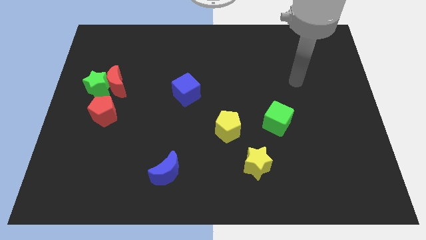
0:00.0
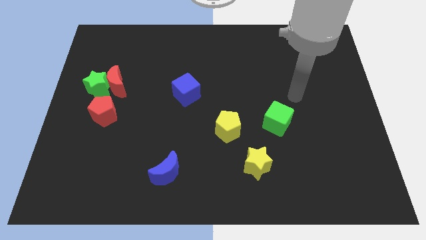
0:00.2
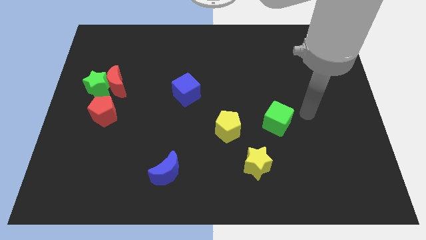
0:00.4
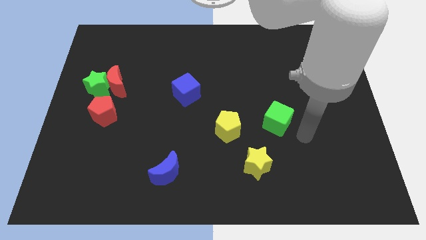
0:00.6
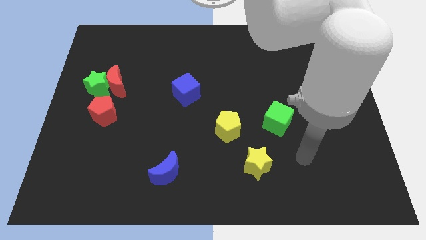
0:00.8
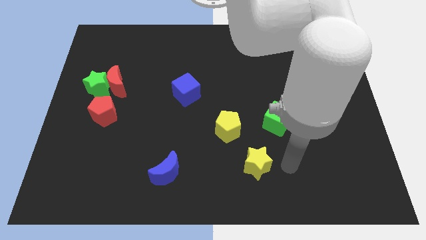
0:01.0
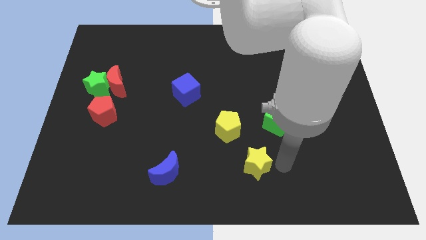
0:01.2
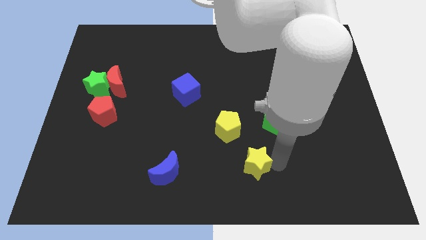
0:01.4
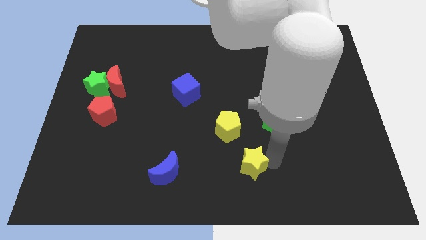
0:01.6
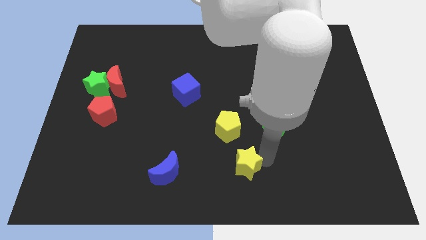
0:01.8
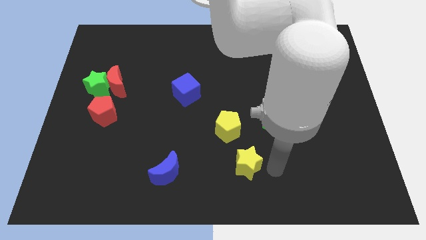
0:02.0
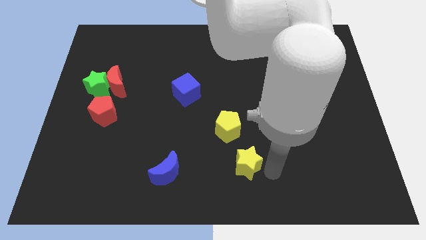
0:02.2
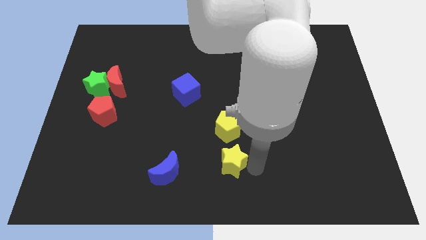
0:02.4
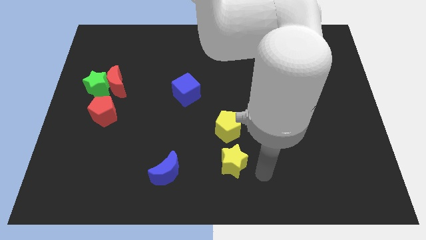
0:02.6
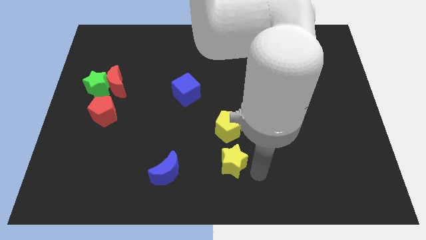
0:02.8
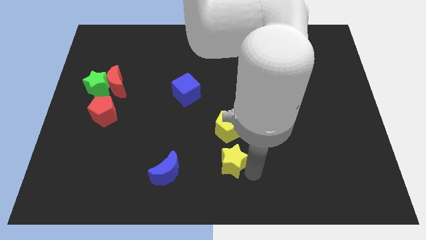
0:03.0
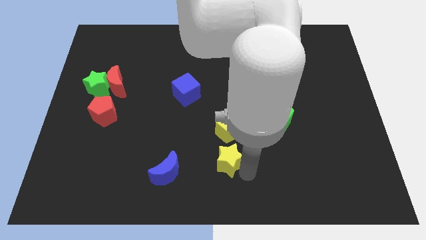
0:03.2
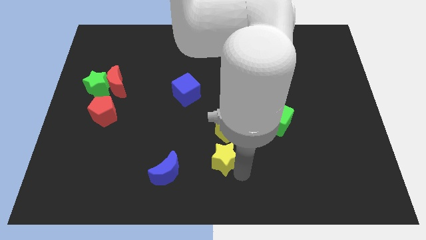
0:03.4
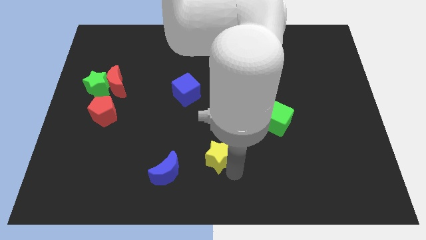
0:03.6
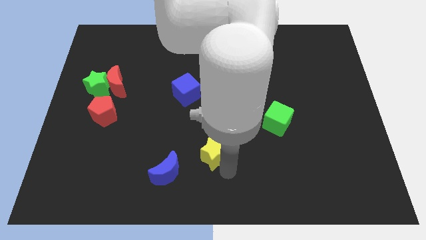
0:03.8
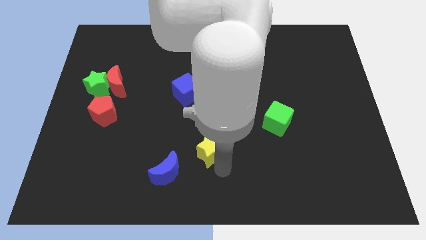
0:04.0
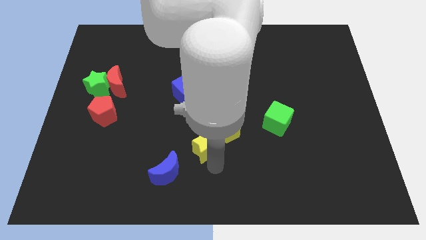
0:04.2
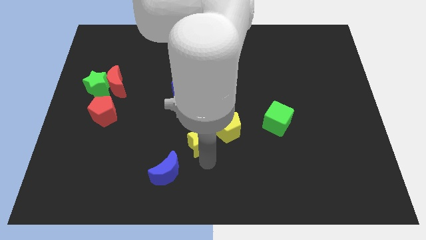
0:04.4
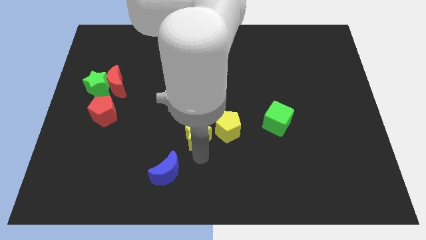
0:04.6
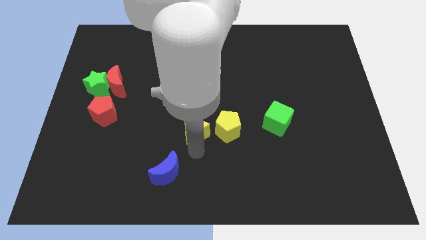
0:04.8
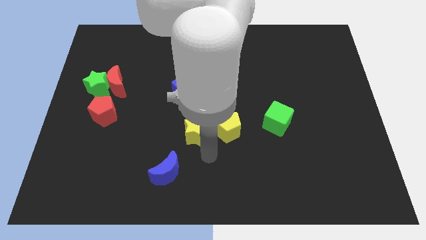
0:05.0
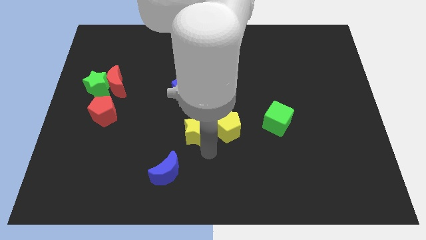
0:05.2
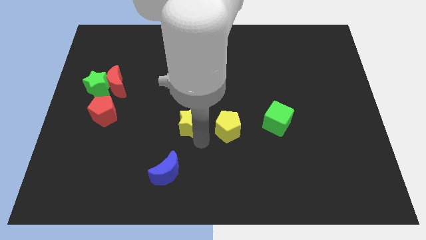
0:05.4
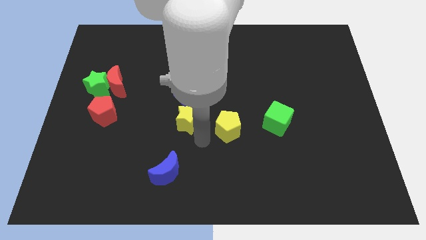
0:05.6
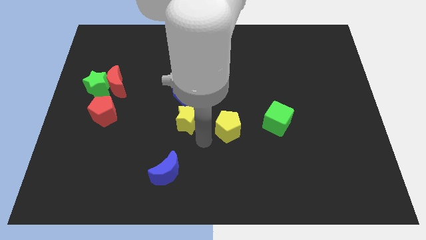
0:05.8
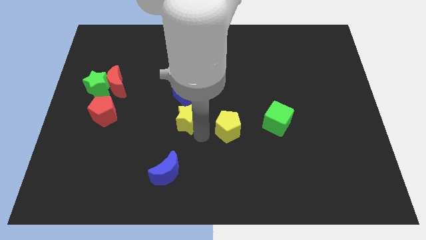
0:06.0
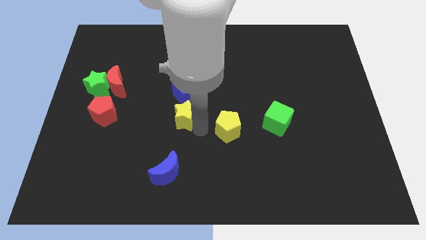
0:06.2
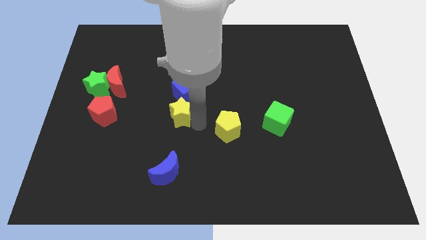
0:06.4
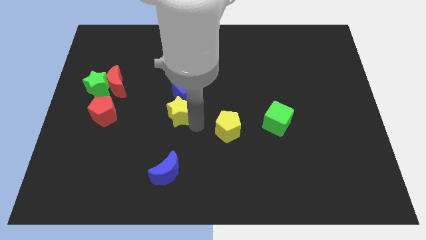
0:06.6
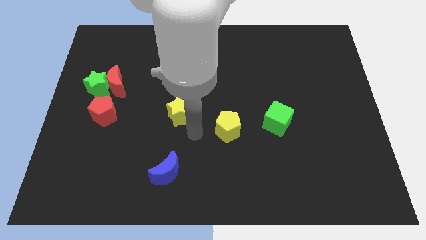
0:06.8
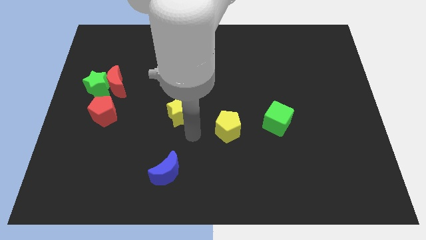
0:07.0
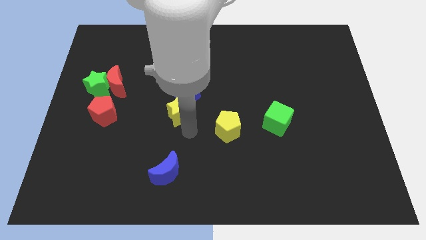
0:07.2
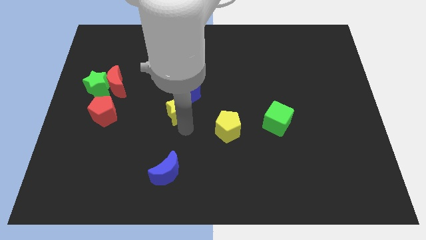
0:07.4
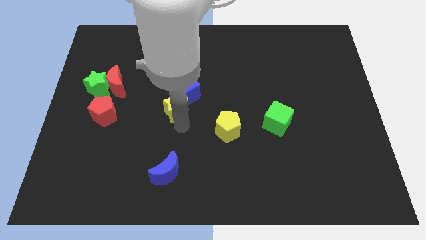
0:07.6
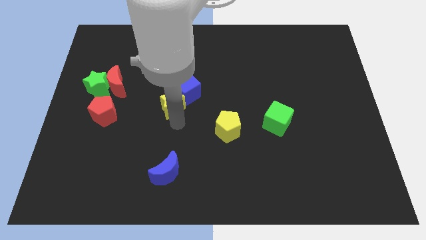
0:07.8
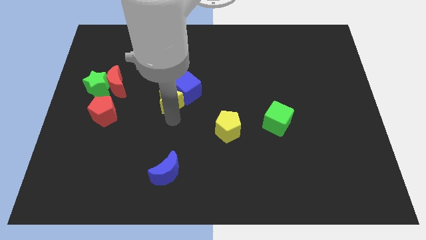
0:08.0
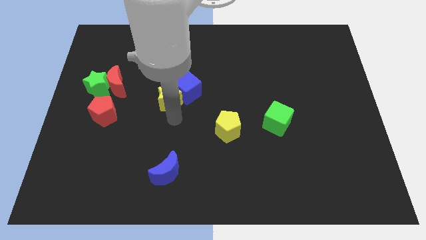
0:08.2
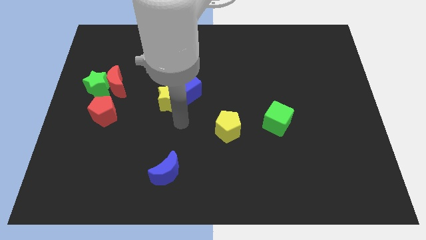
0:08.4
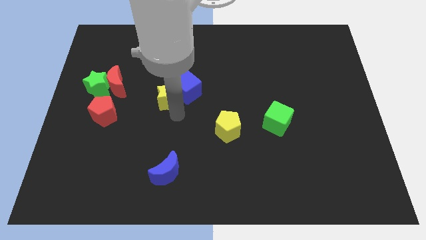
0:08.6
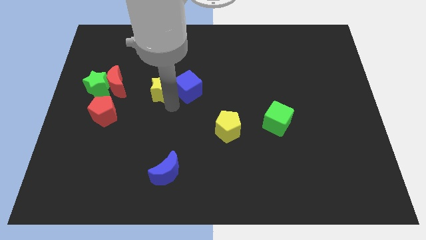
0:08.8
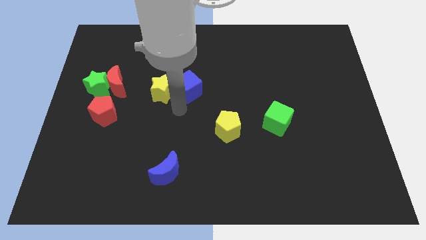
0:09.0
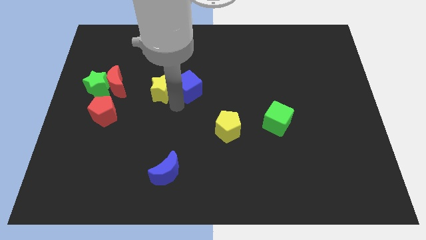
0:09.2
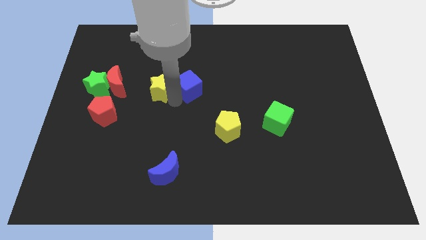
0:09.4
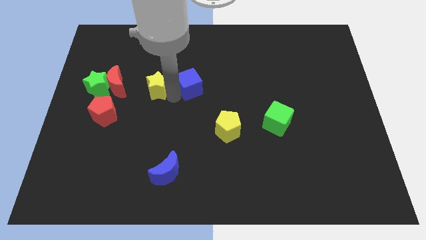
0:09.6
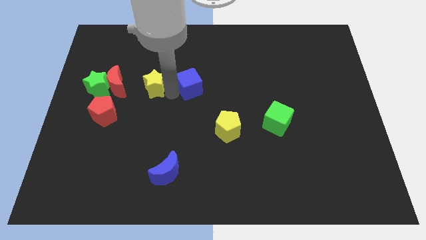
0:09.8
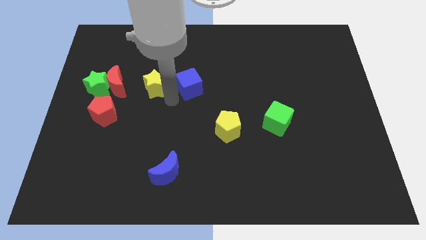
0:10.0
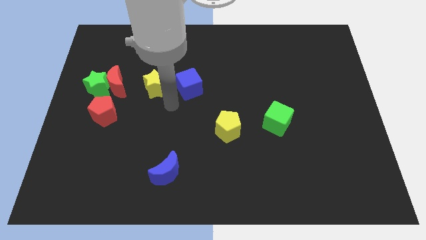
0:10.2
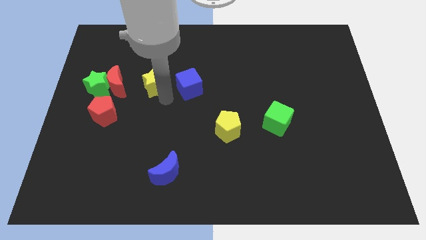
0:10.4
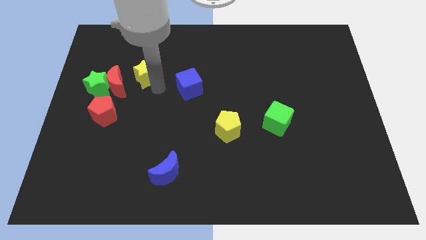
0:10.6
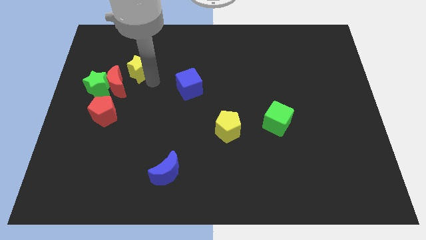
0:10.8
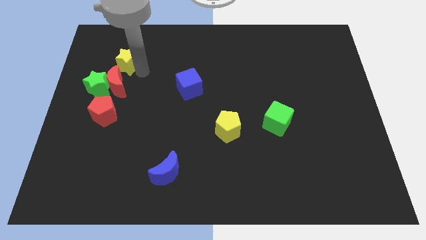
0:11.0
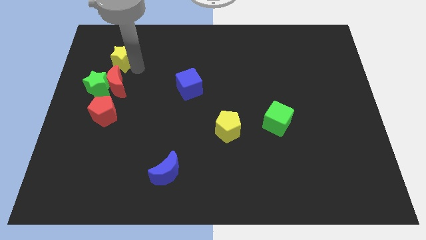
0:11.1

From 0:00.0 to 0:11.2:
push the yellow star above the green star

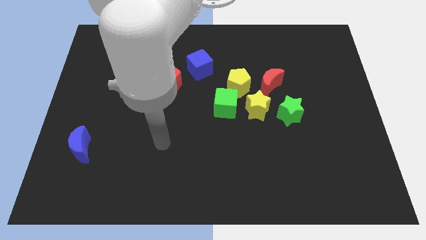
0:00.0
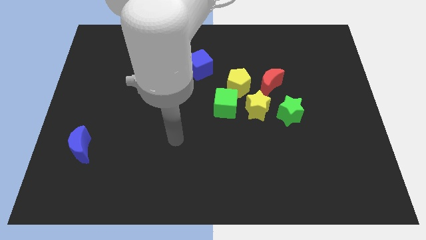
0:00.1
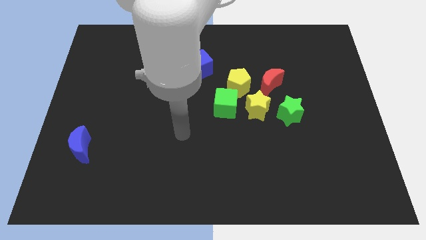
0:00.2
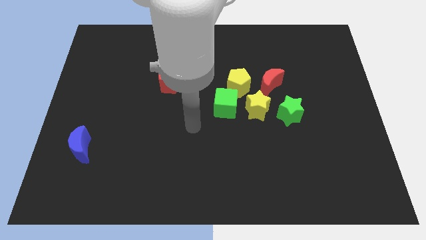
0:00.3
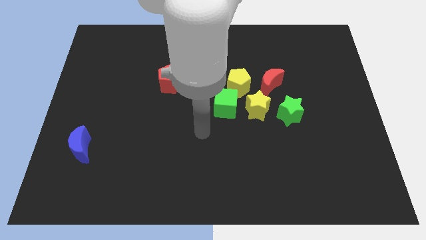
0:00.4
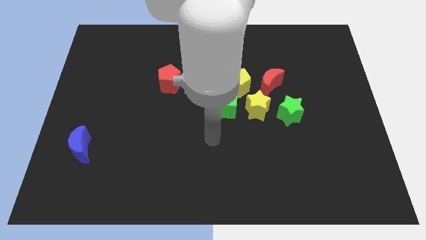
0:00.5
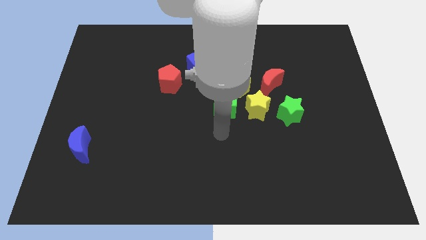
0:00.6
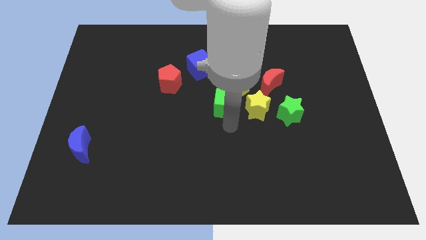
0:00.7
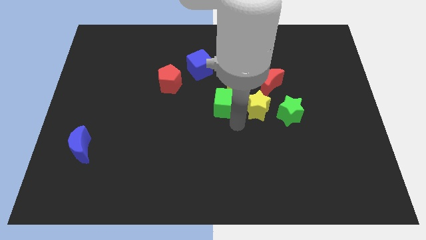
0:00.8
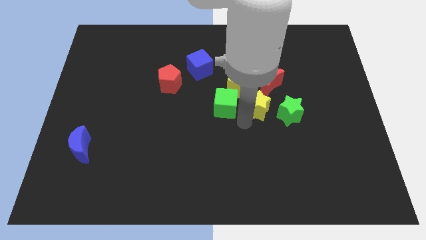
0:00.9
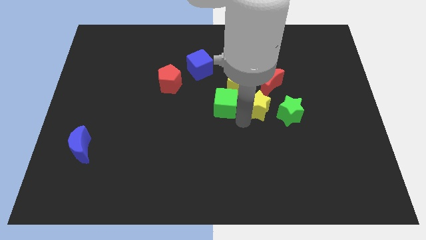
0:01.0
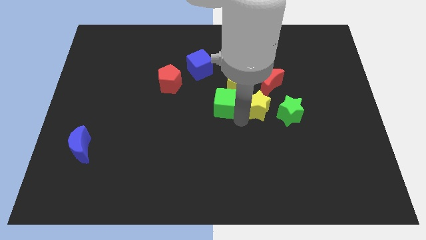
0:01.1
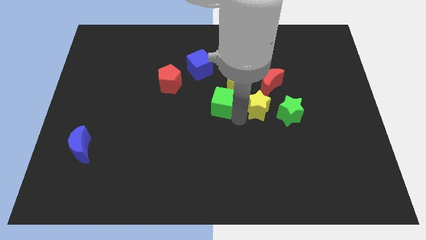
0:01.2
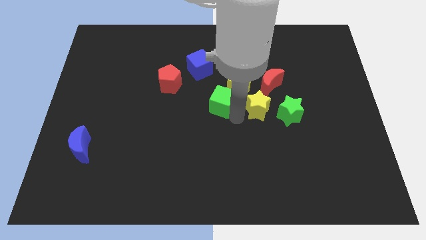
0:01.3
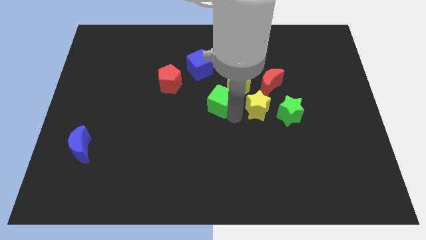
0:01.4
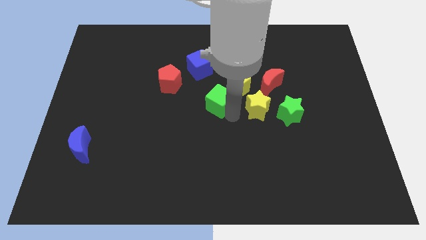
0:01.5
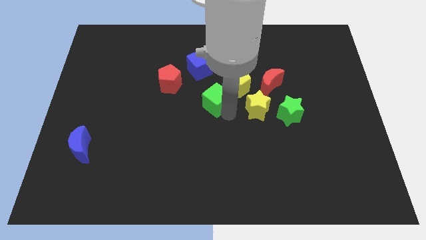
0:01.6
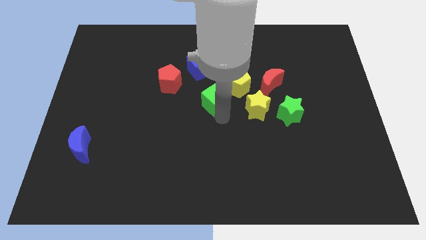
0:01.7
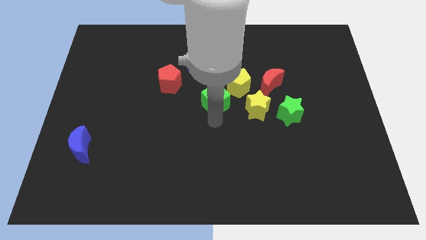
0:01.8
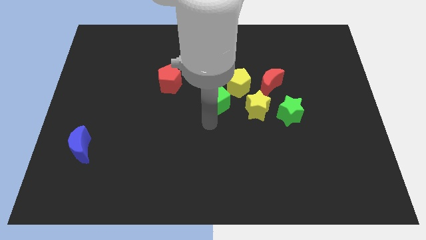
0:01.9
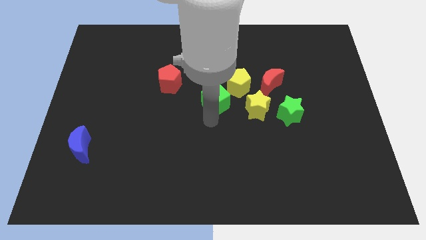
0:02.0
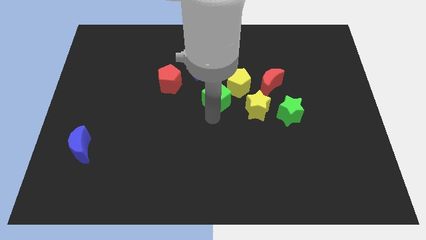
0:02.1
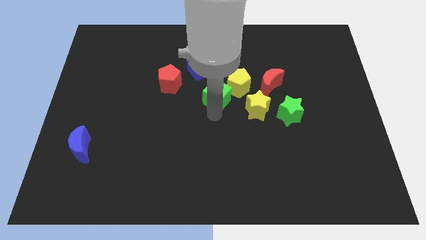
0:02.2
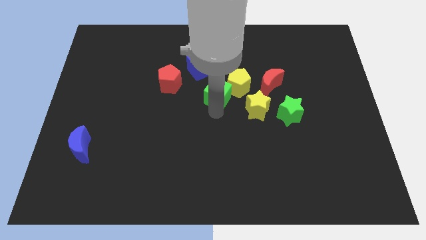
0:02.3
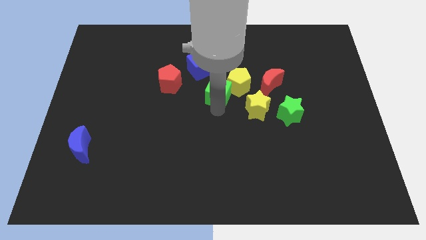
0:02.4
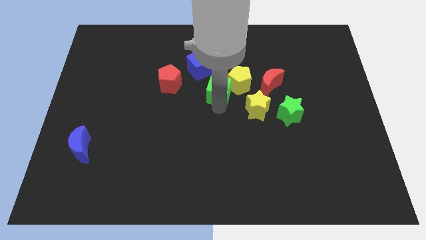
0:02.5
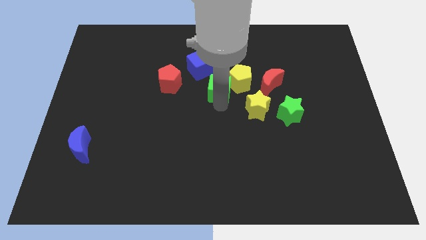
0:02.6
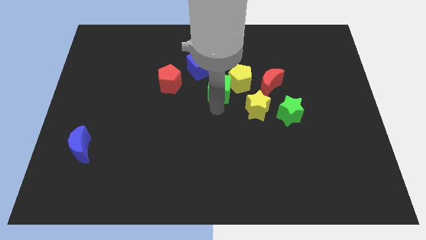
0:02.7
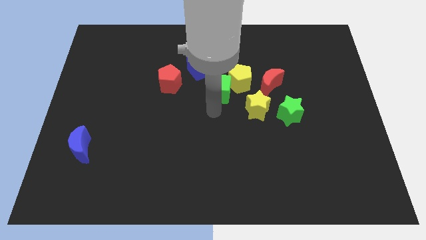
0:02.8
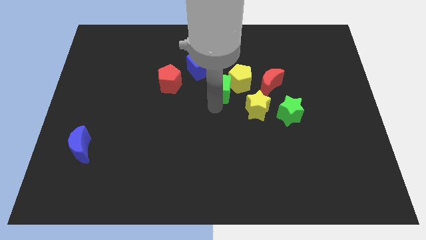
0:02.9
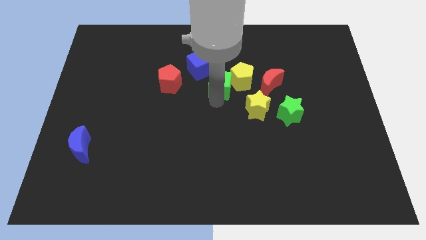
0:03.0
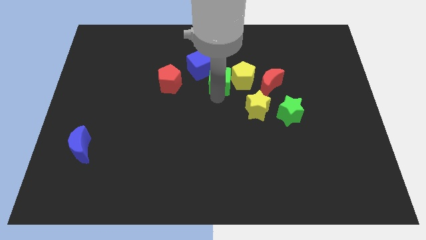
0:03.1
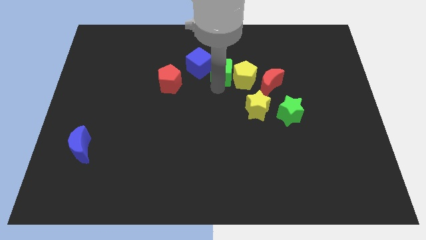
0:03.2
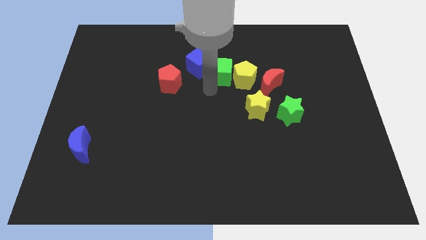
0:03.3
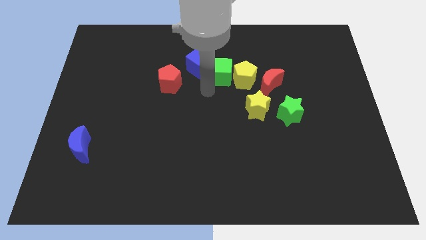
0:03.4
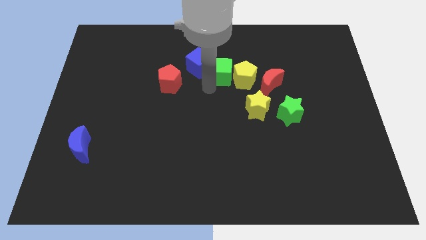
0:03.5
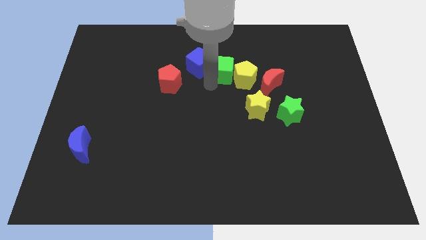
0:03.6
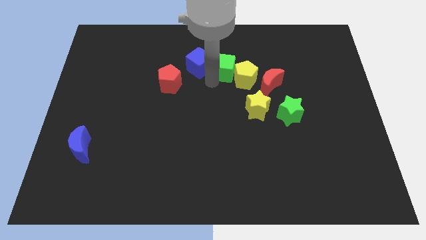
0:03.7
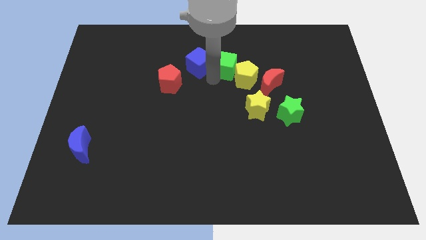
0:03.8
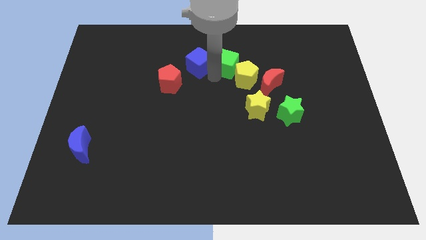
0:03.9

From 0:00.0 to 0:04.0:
push the green cube to the top side of the yellow pentagon
